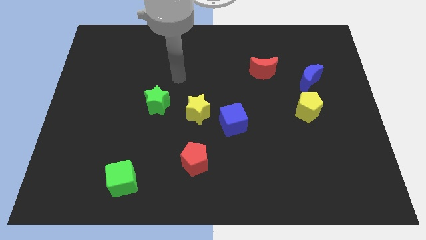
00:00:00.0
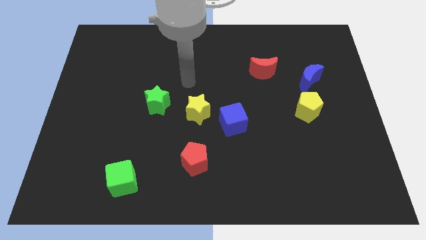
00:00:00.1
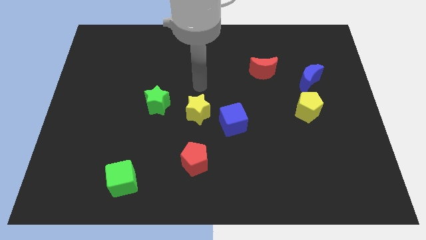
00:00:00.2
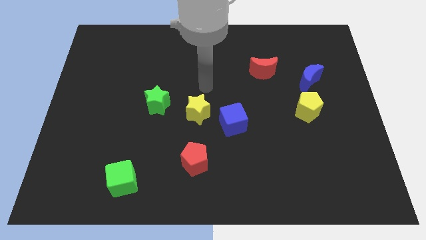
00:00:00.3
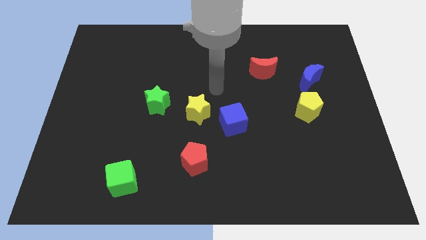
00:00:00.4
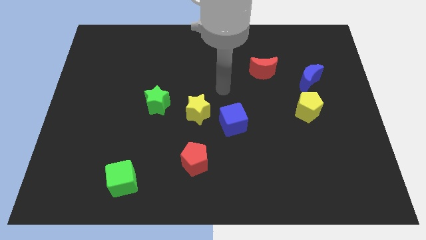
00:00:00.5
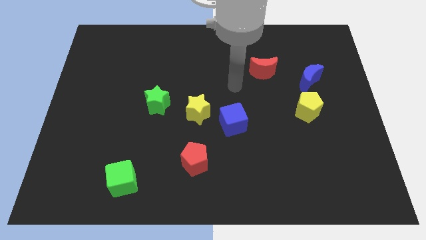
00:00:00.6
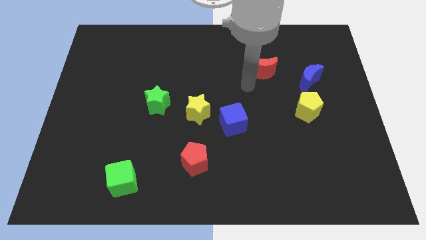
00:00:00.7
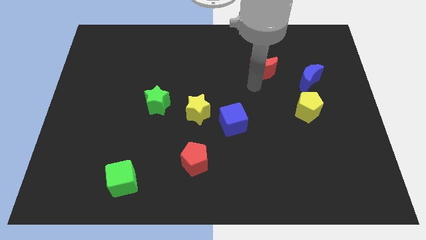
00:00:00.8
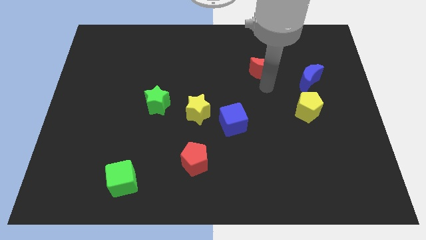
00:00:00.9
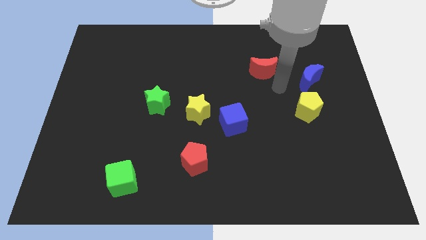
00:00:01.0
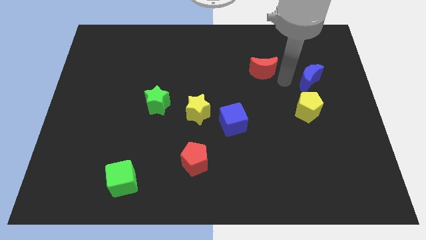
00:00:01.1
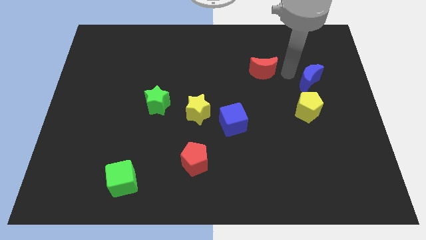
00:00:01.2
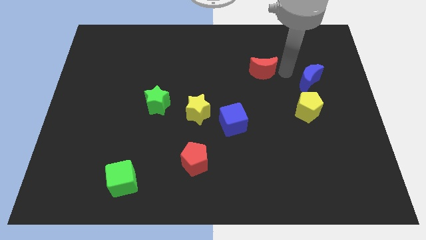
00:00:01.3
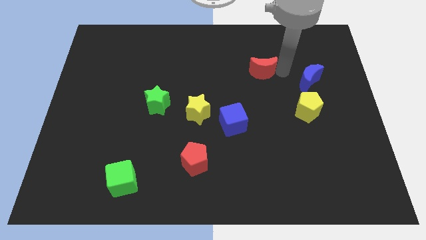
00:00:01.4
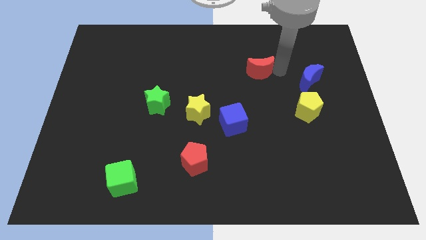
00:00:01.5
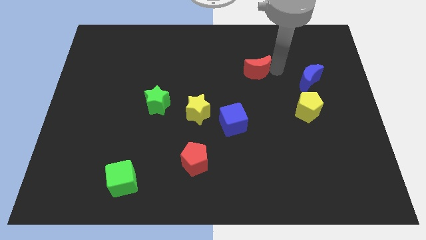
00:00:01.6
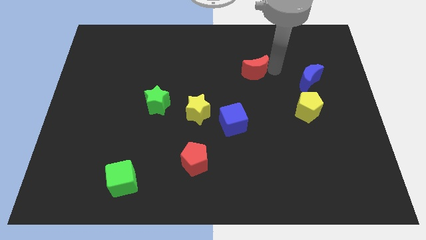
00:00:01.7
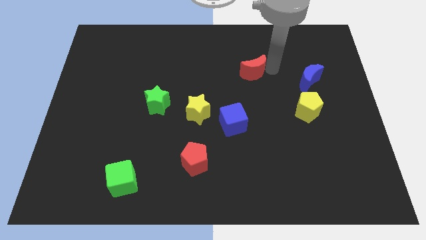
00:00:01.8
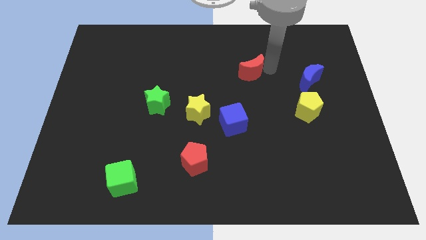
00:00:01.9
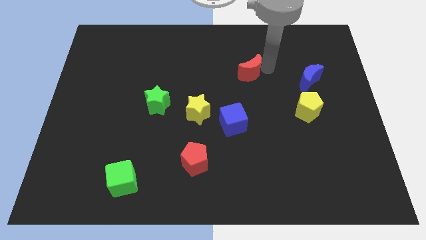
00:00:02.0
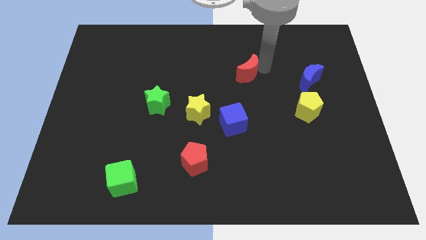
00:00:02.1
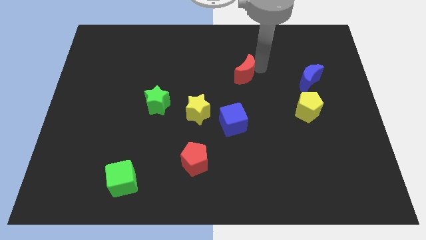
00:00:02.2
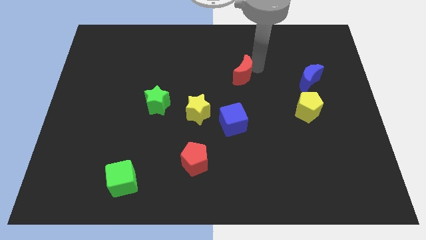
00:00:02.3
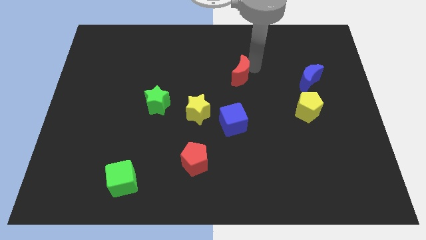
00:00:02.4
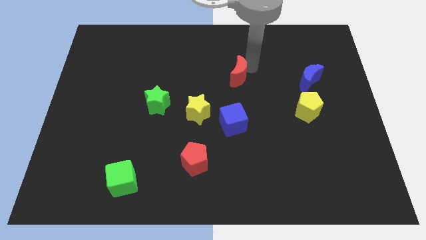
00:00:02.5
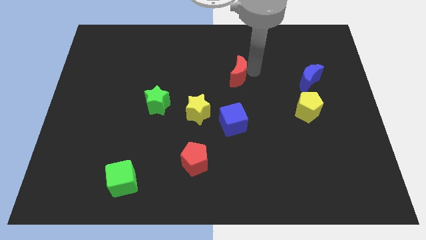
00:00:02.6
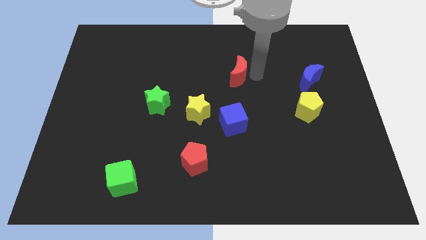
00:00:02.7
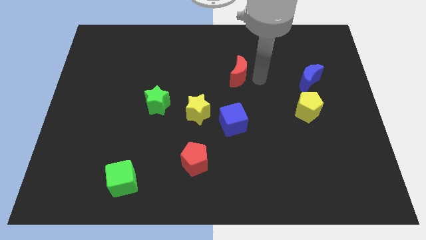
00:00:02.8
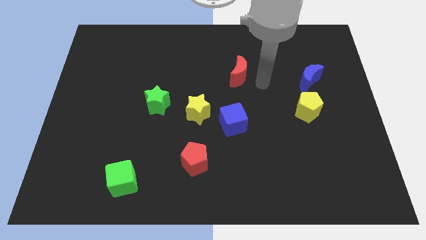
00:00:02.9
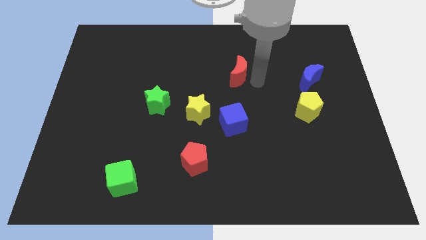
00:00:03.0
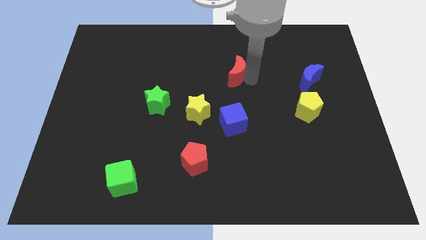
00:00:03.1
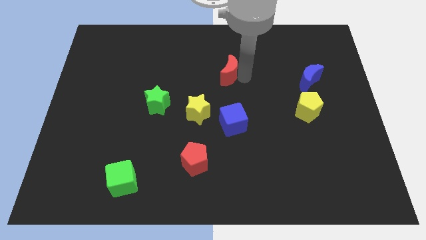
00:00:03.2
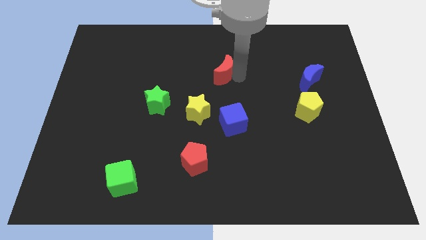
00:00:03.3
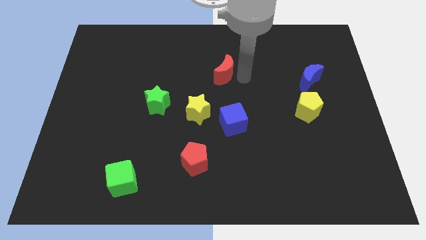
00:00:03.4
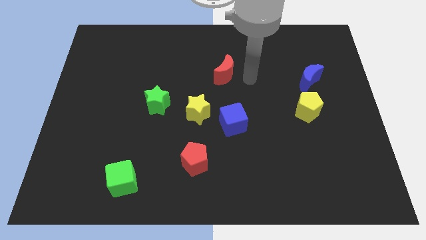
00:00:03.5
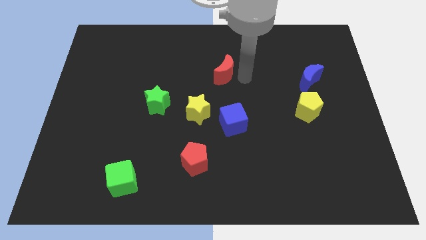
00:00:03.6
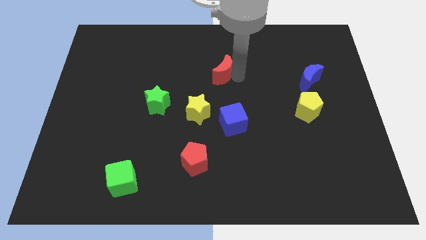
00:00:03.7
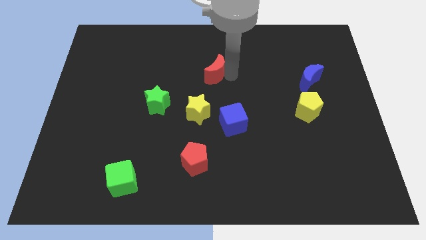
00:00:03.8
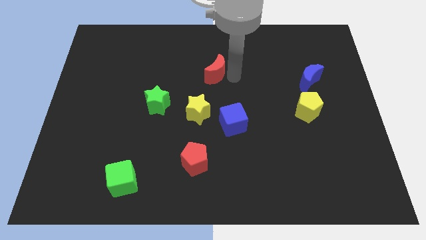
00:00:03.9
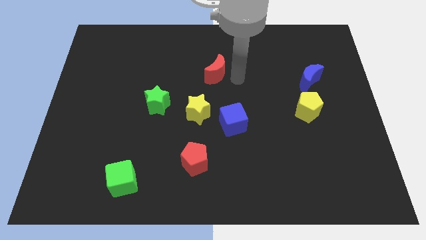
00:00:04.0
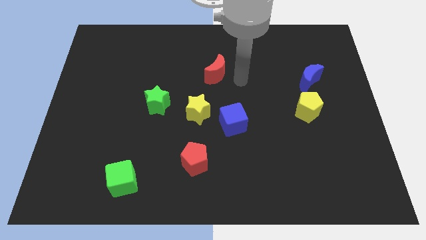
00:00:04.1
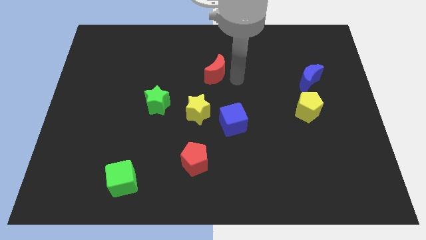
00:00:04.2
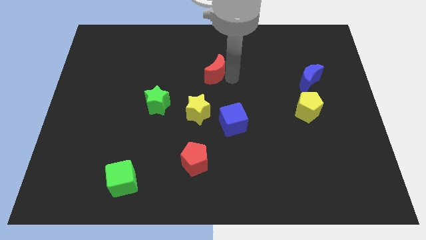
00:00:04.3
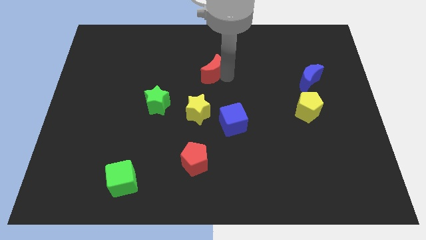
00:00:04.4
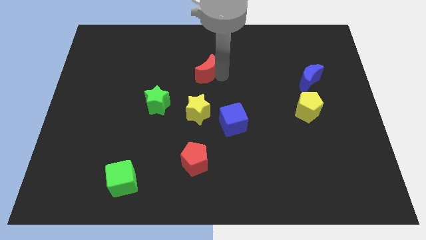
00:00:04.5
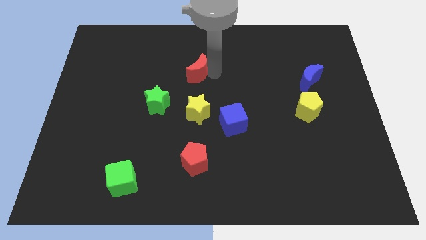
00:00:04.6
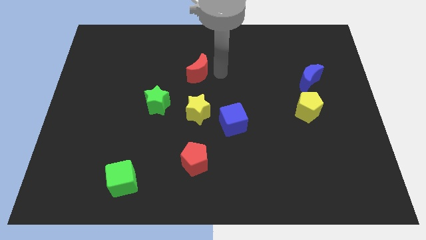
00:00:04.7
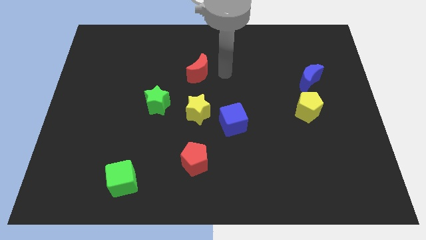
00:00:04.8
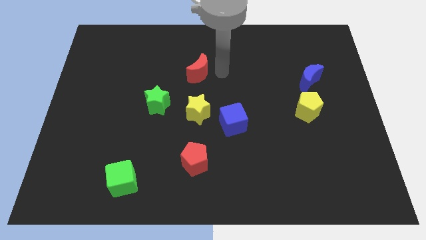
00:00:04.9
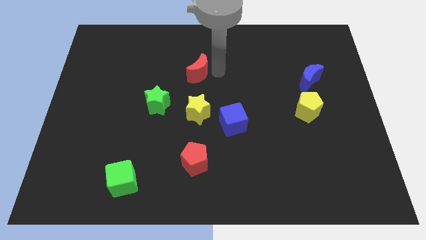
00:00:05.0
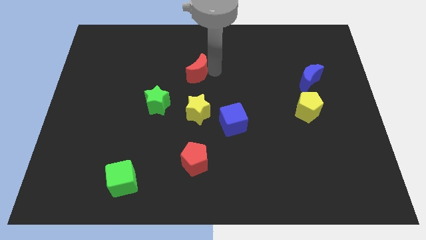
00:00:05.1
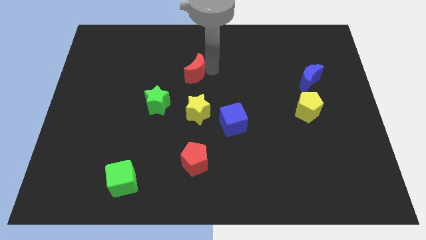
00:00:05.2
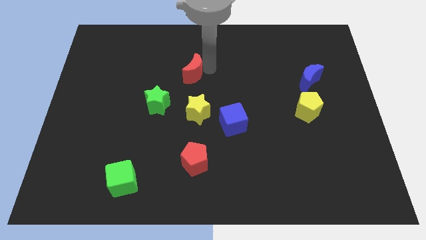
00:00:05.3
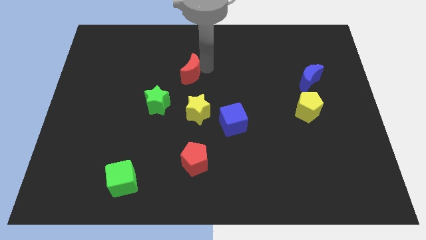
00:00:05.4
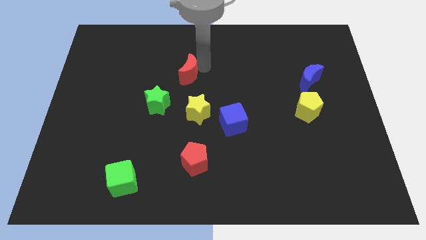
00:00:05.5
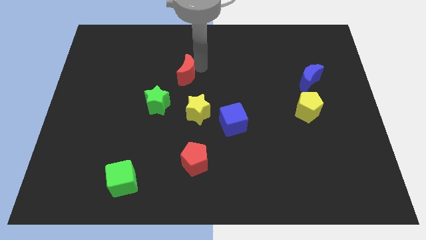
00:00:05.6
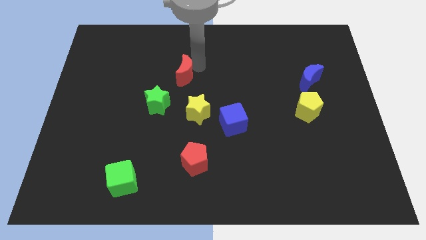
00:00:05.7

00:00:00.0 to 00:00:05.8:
push the red moon left

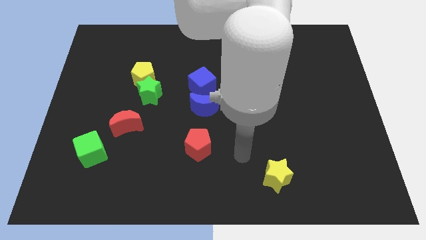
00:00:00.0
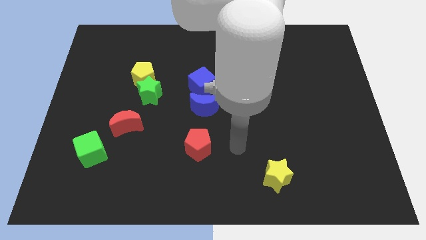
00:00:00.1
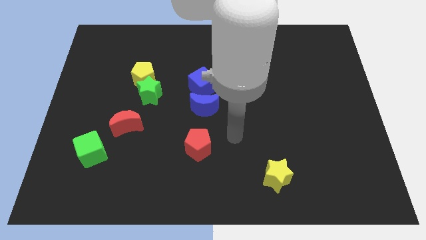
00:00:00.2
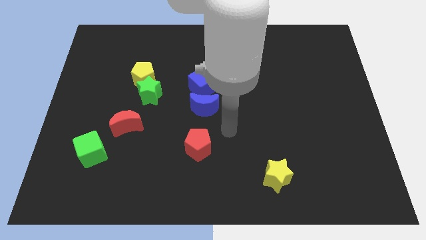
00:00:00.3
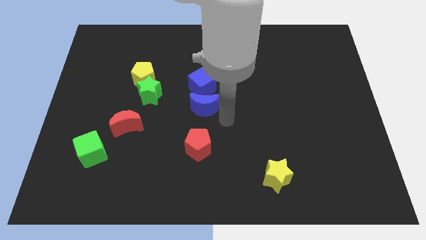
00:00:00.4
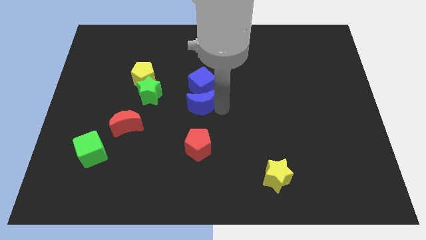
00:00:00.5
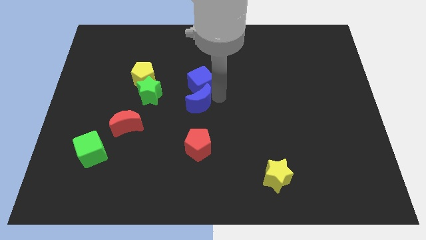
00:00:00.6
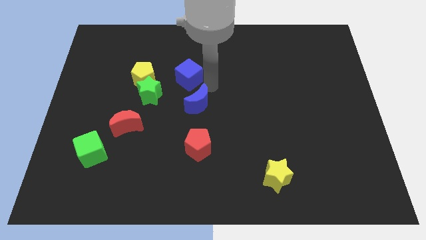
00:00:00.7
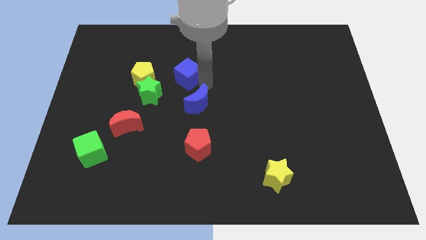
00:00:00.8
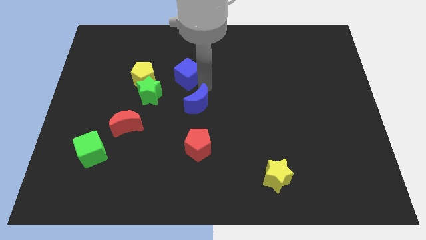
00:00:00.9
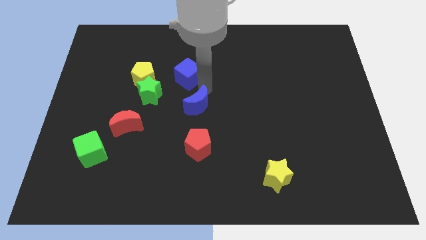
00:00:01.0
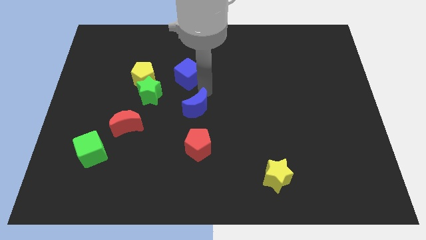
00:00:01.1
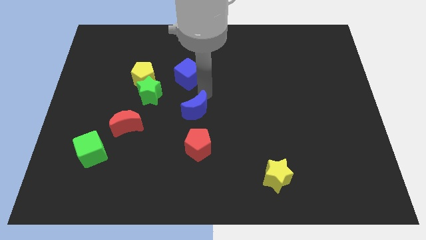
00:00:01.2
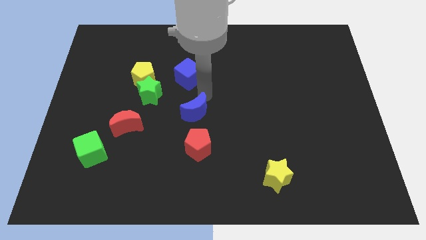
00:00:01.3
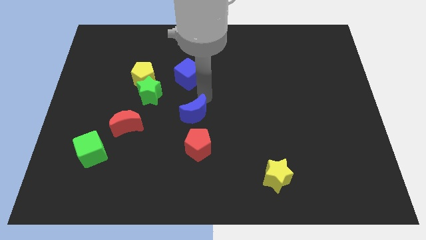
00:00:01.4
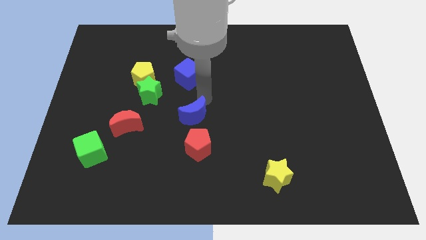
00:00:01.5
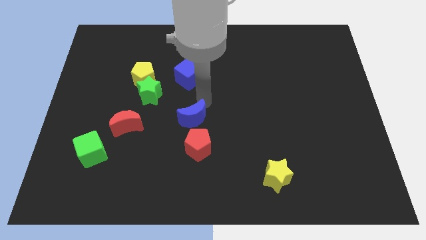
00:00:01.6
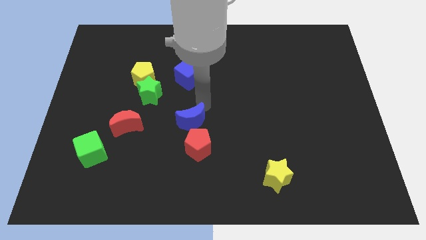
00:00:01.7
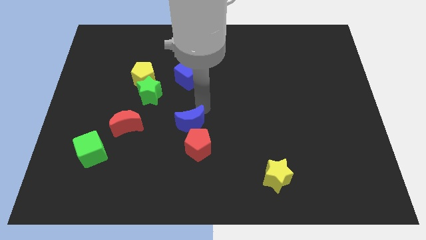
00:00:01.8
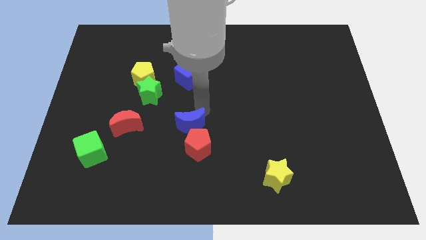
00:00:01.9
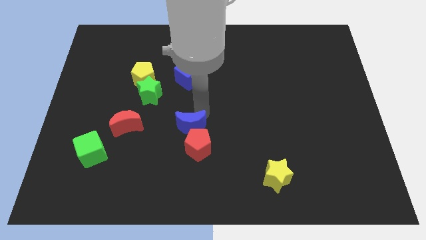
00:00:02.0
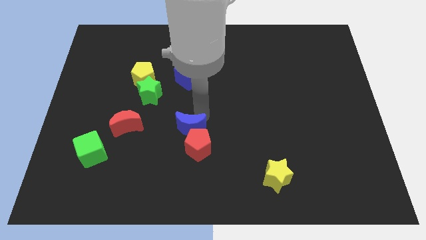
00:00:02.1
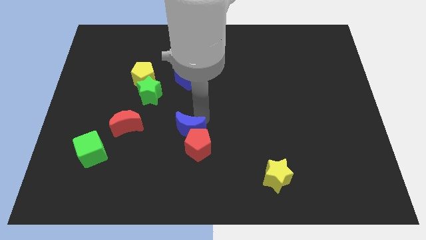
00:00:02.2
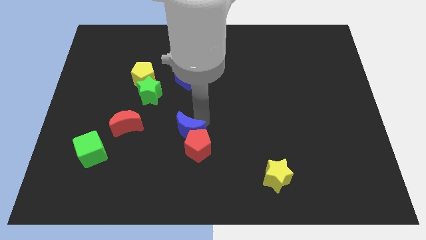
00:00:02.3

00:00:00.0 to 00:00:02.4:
push the blue moon down and to the left diagonally slightly
